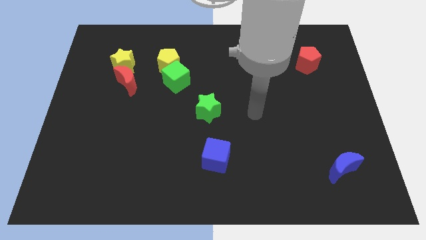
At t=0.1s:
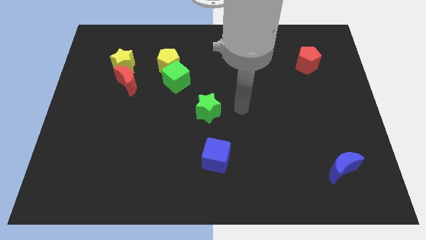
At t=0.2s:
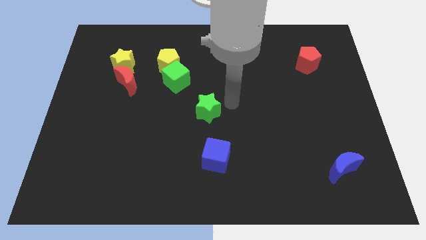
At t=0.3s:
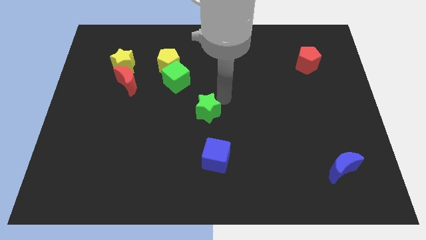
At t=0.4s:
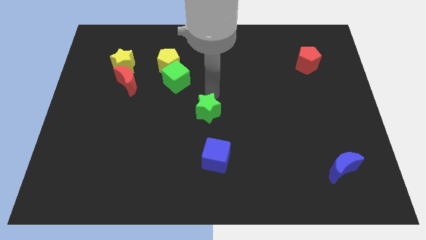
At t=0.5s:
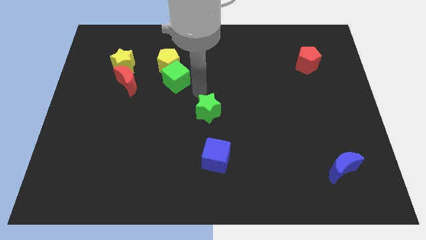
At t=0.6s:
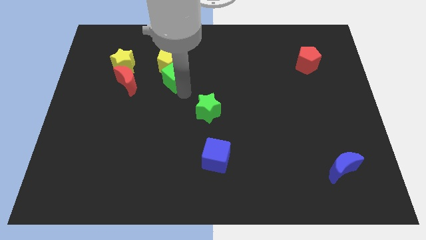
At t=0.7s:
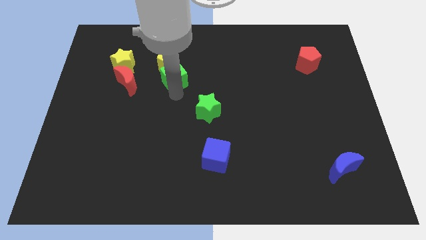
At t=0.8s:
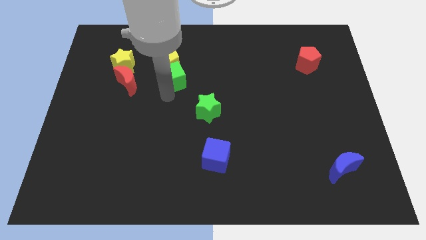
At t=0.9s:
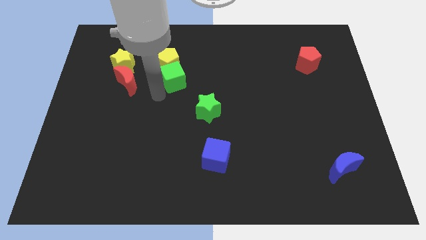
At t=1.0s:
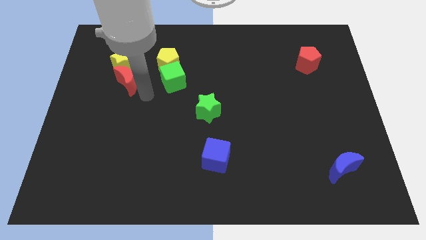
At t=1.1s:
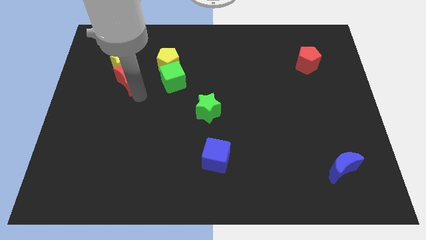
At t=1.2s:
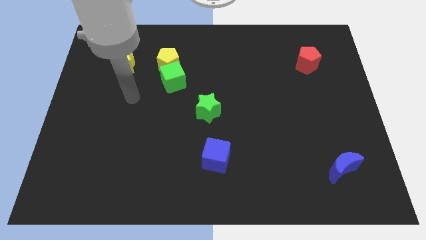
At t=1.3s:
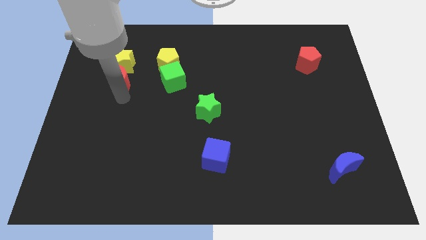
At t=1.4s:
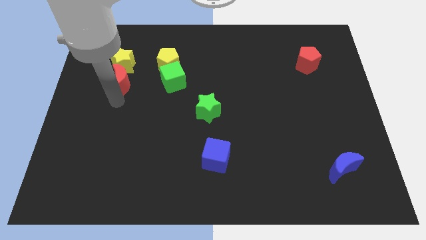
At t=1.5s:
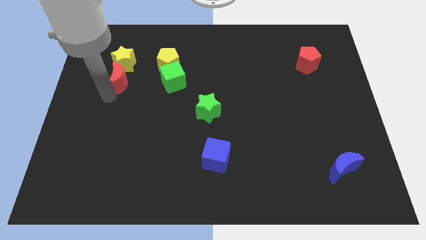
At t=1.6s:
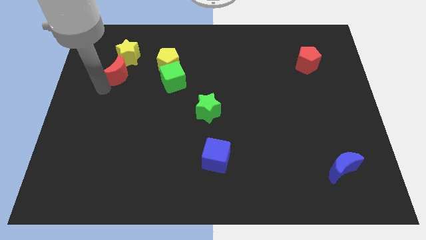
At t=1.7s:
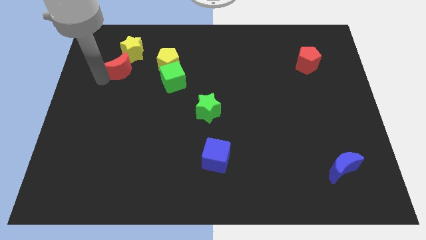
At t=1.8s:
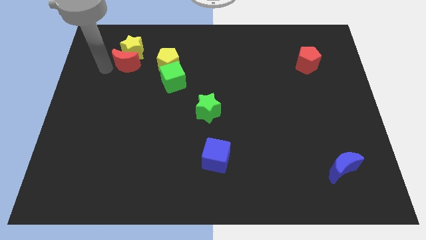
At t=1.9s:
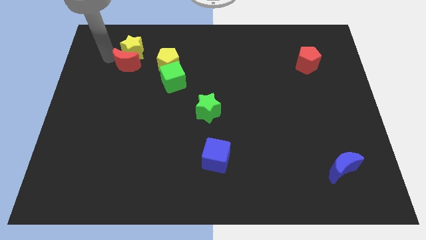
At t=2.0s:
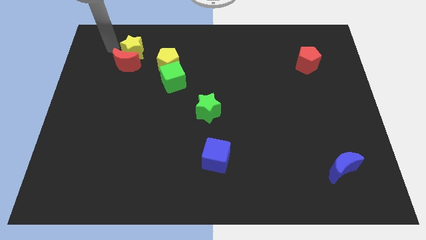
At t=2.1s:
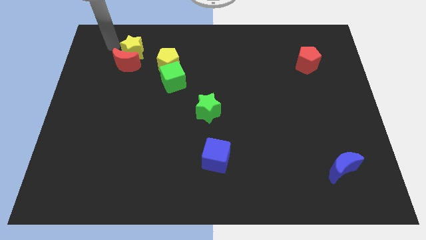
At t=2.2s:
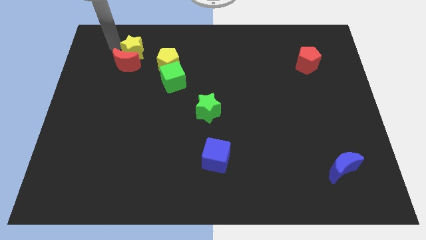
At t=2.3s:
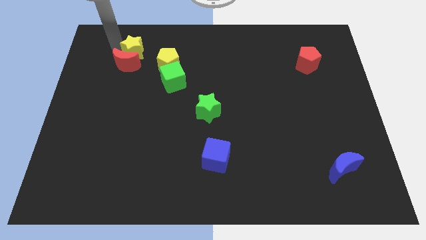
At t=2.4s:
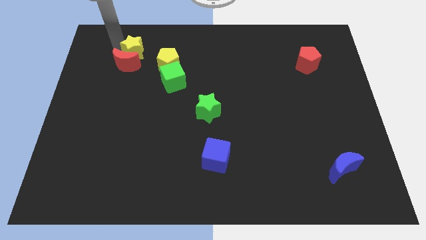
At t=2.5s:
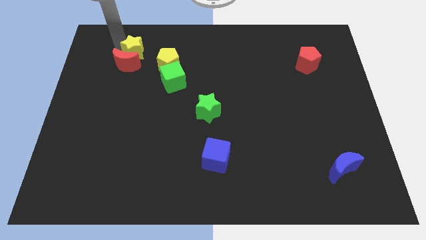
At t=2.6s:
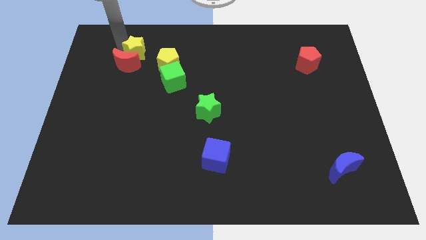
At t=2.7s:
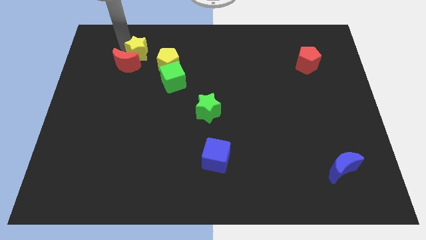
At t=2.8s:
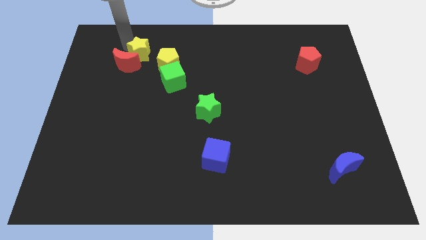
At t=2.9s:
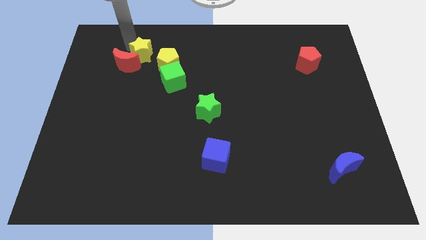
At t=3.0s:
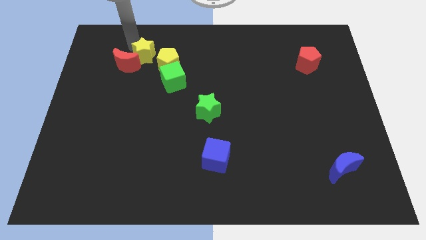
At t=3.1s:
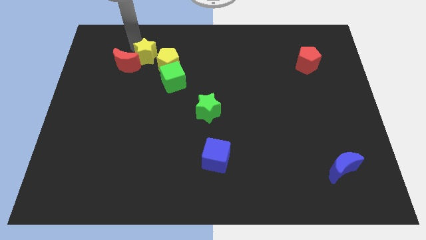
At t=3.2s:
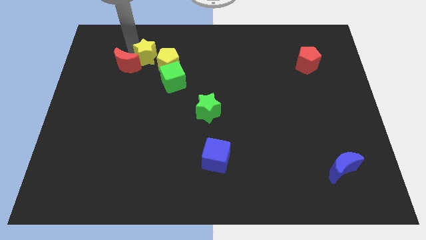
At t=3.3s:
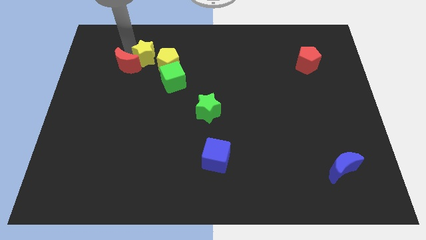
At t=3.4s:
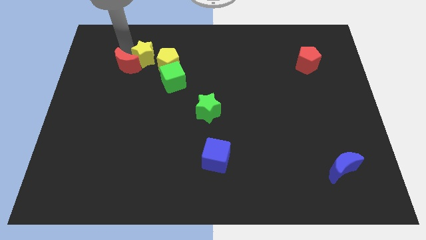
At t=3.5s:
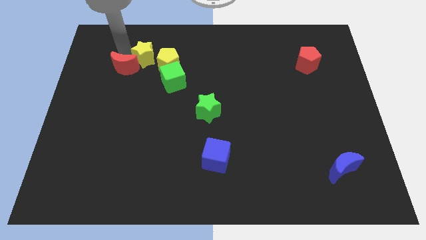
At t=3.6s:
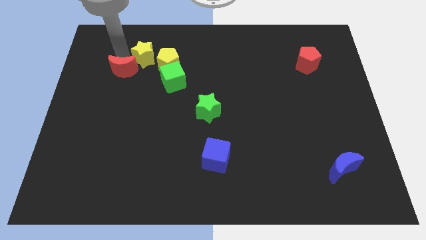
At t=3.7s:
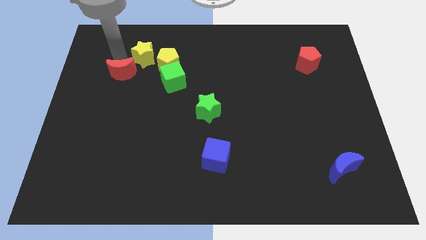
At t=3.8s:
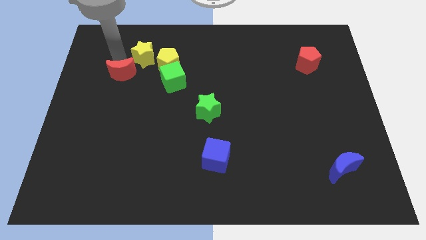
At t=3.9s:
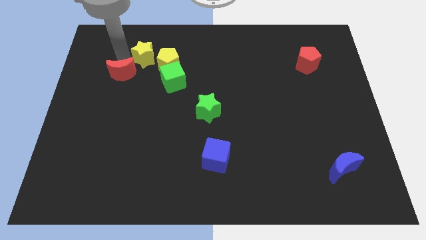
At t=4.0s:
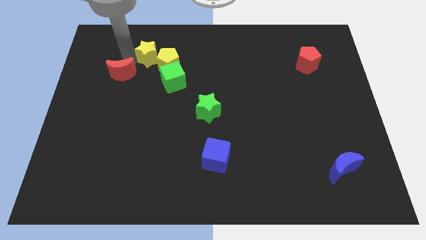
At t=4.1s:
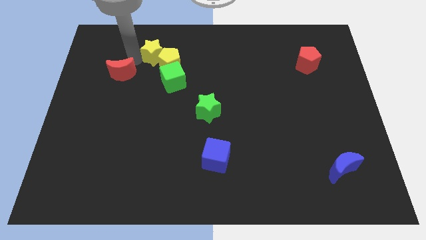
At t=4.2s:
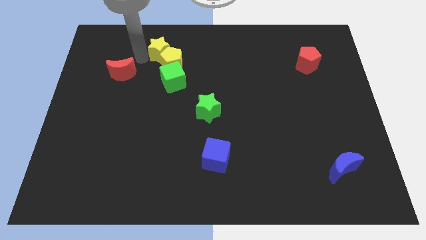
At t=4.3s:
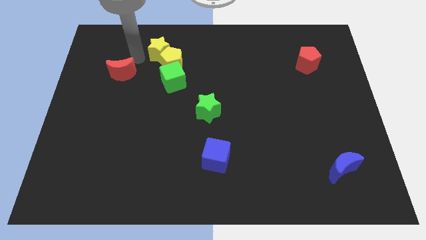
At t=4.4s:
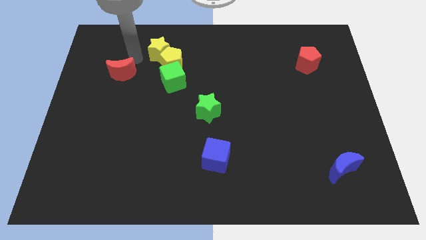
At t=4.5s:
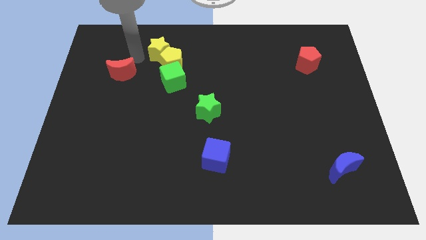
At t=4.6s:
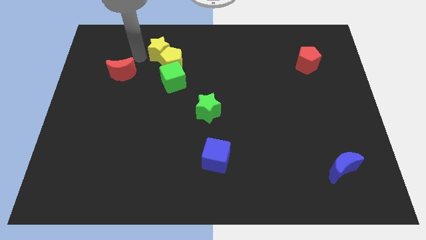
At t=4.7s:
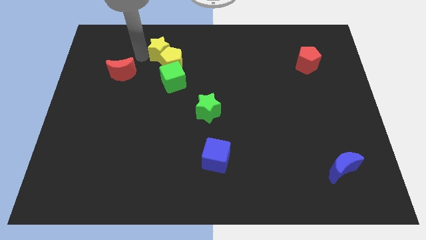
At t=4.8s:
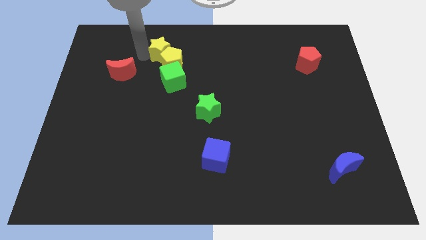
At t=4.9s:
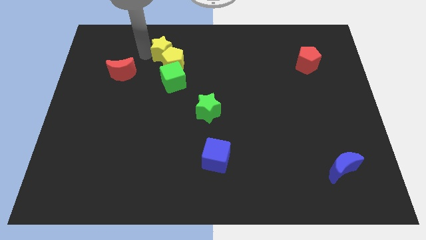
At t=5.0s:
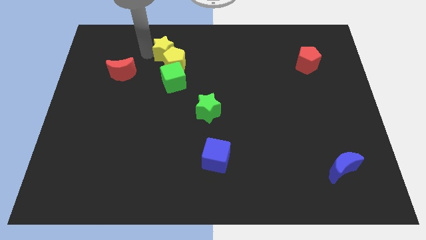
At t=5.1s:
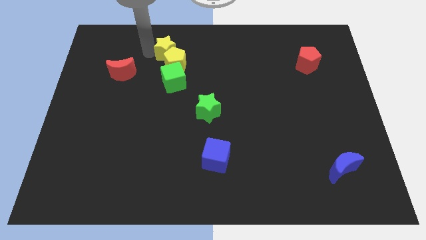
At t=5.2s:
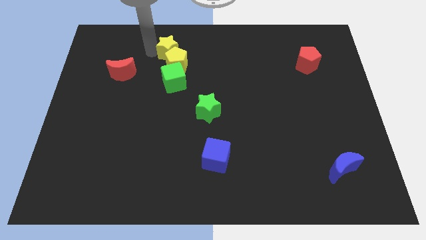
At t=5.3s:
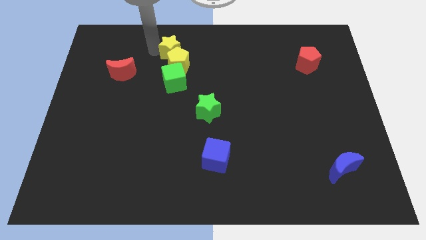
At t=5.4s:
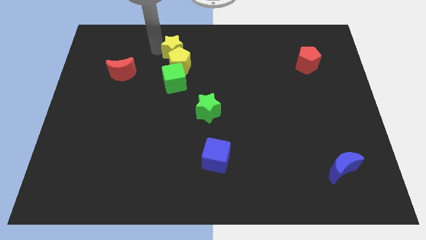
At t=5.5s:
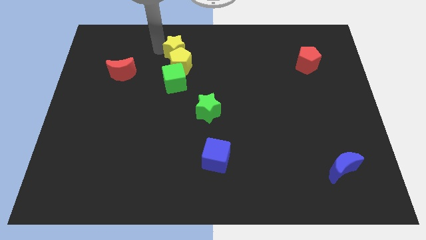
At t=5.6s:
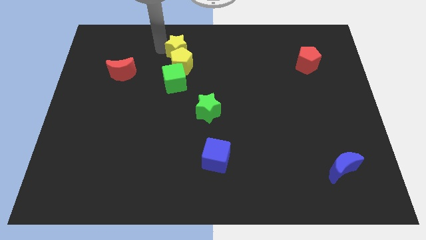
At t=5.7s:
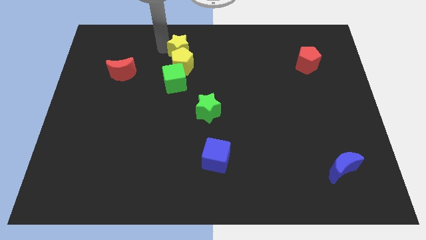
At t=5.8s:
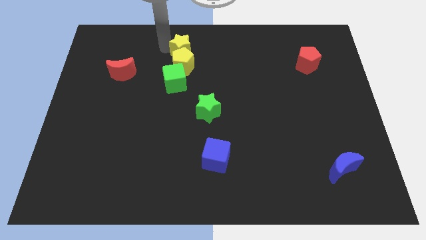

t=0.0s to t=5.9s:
slide the yellow star to the top

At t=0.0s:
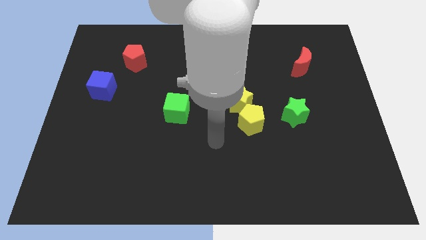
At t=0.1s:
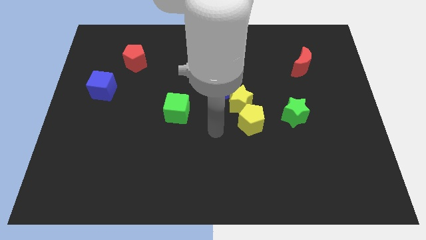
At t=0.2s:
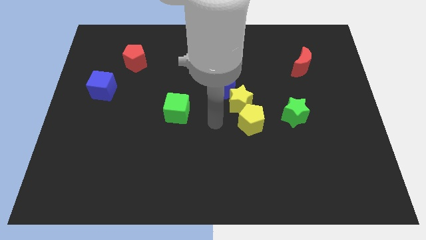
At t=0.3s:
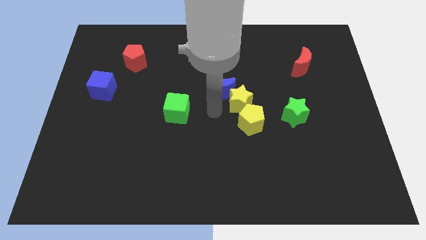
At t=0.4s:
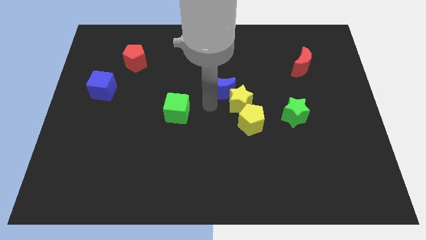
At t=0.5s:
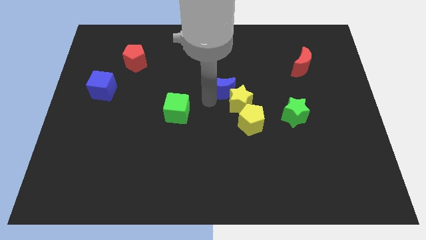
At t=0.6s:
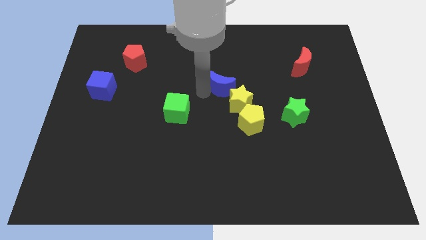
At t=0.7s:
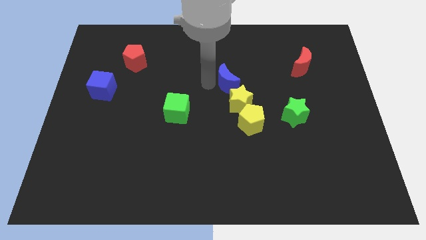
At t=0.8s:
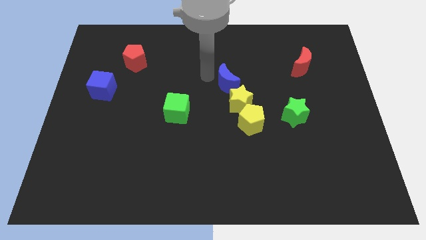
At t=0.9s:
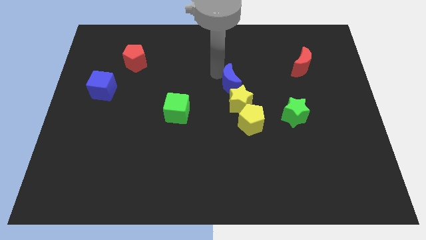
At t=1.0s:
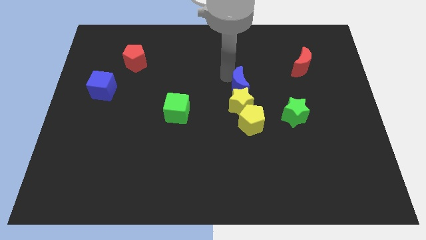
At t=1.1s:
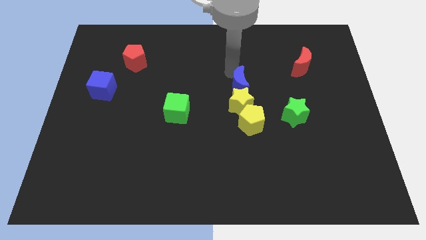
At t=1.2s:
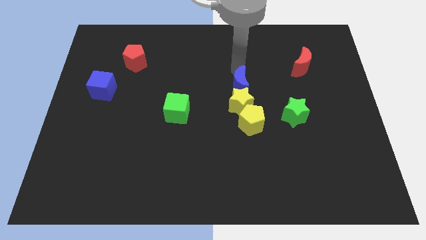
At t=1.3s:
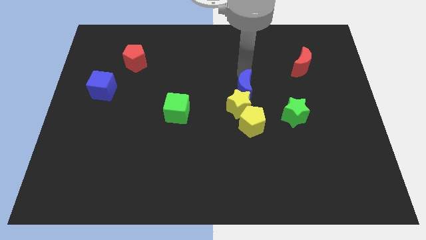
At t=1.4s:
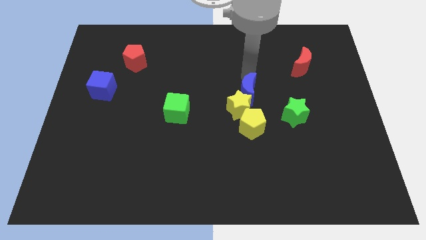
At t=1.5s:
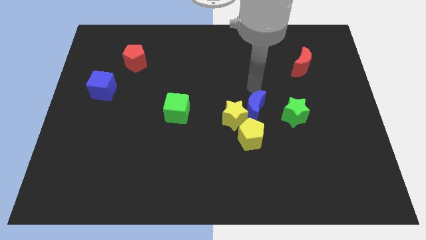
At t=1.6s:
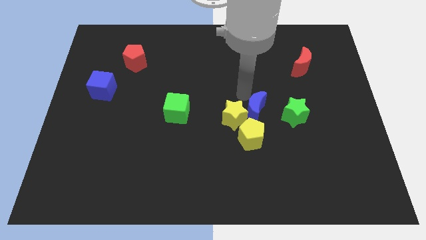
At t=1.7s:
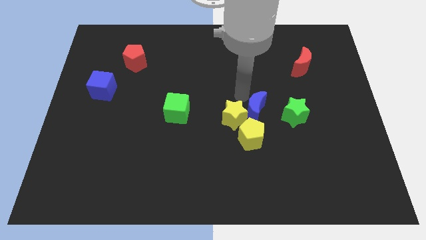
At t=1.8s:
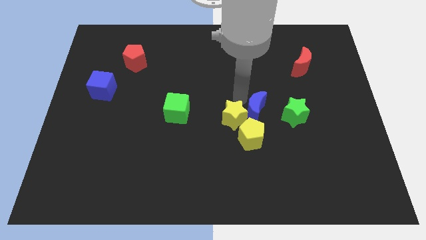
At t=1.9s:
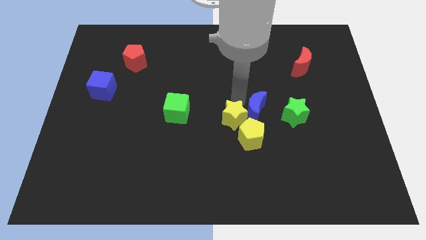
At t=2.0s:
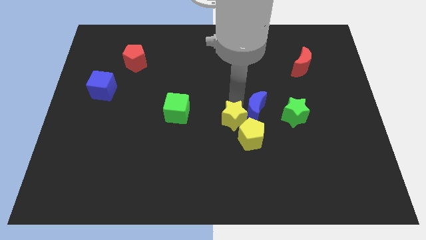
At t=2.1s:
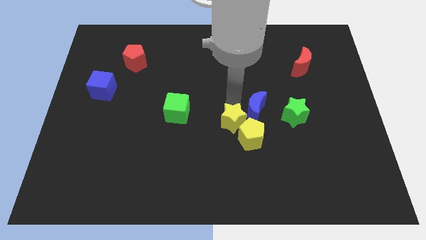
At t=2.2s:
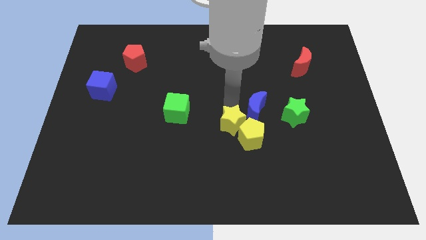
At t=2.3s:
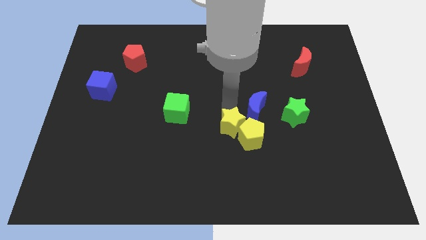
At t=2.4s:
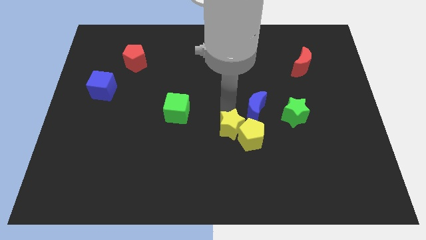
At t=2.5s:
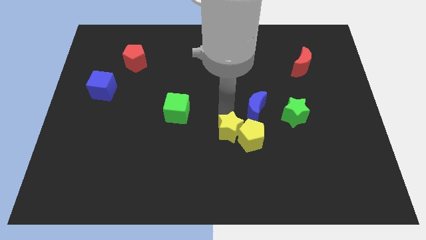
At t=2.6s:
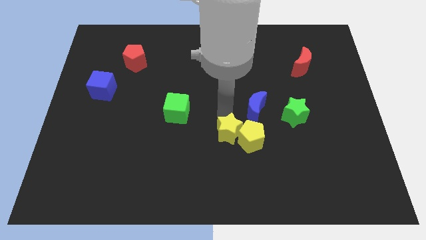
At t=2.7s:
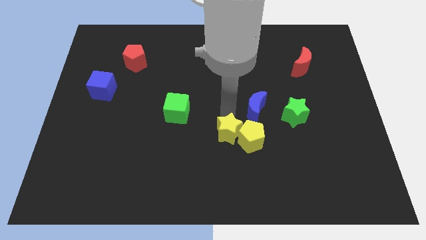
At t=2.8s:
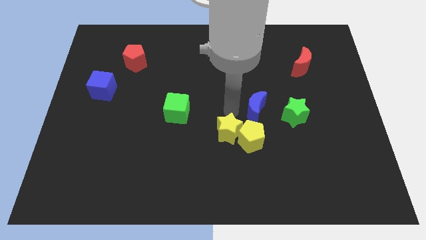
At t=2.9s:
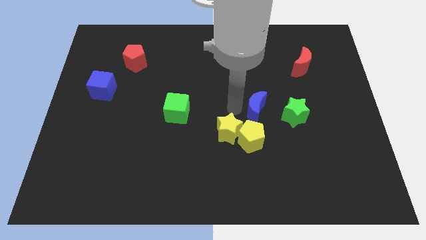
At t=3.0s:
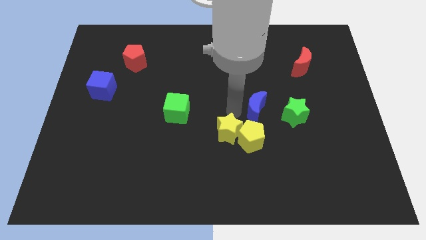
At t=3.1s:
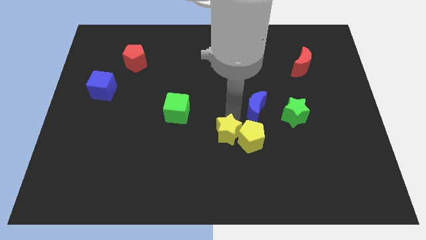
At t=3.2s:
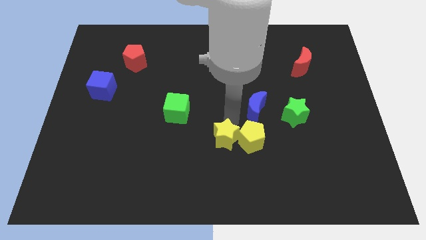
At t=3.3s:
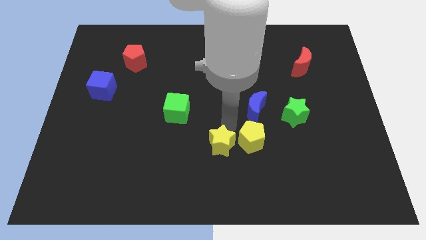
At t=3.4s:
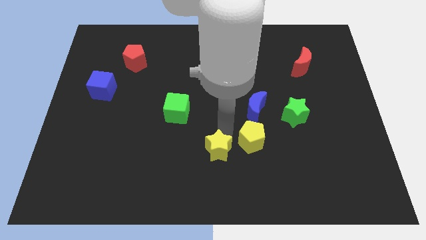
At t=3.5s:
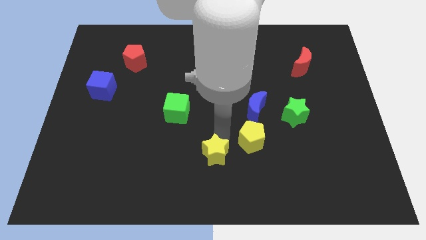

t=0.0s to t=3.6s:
push the yellow star to the bottom
